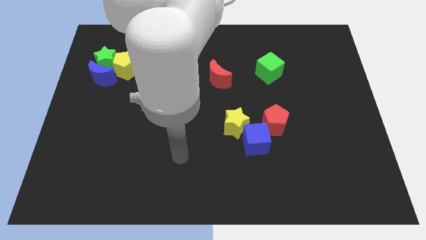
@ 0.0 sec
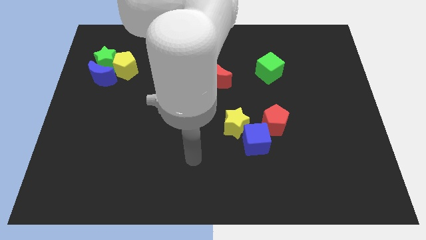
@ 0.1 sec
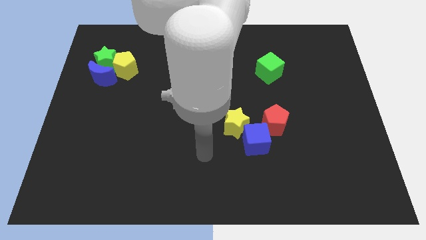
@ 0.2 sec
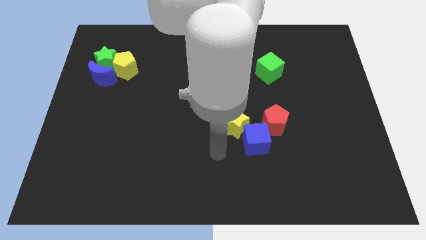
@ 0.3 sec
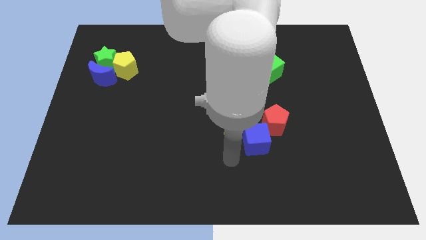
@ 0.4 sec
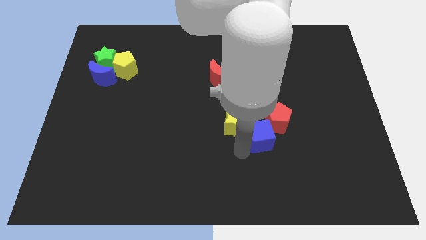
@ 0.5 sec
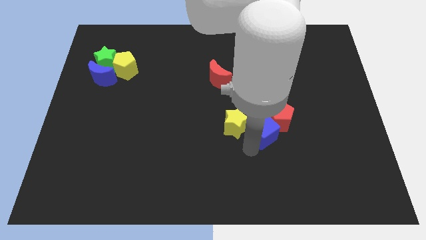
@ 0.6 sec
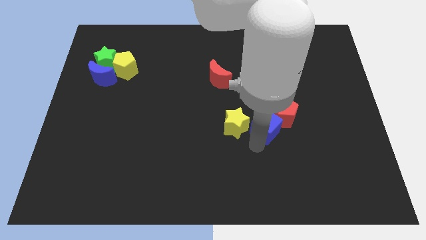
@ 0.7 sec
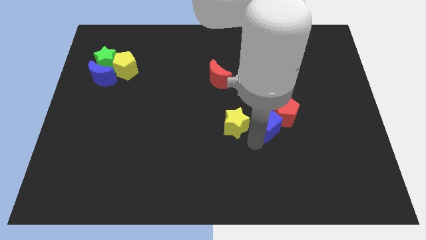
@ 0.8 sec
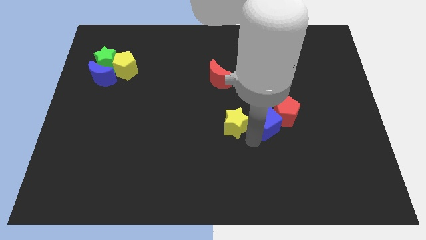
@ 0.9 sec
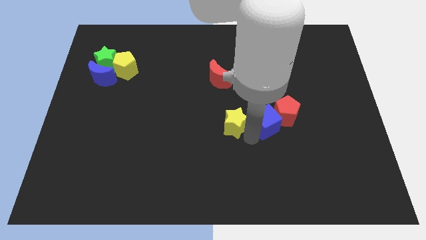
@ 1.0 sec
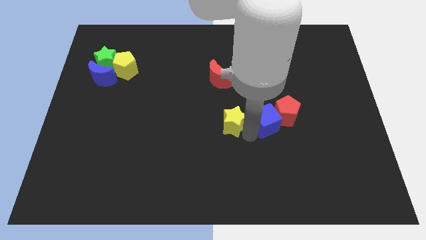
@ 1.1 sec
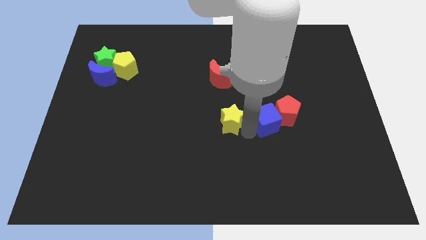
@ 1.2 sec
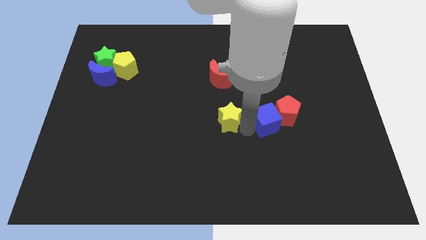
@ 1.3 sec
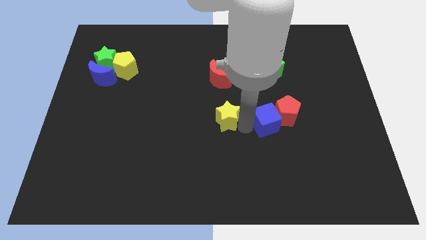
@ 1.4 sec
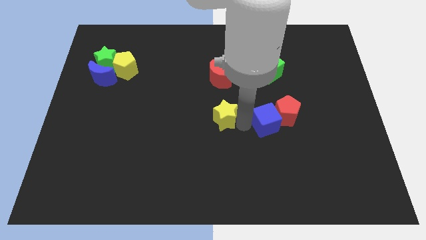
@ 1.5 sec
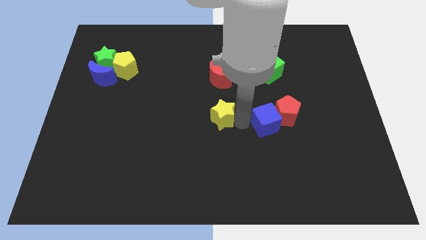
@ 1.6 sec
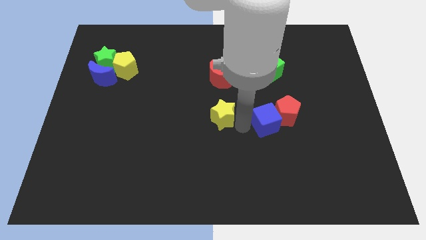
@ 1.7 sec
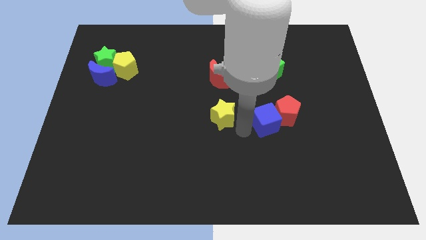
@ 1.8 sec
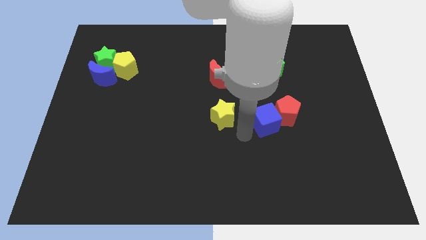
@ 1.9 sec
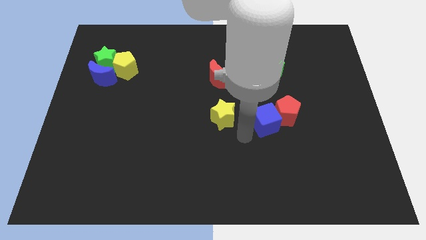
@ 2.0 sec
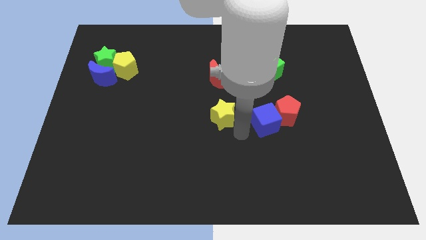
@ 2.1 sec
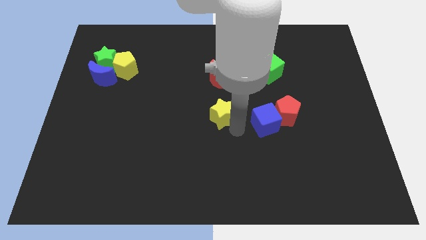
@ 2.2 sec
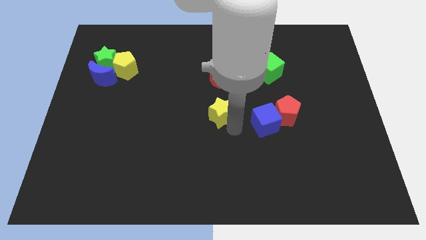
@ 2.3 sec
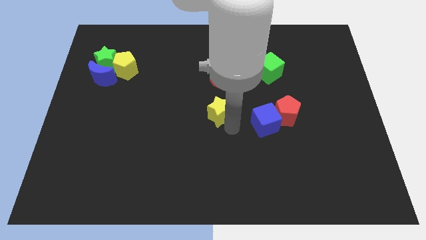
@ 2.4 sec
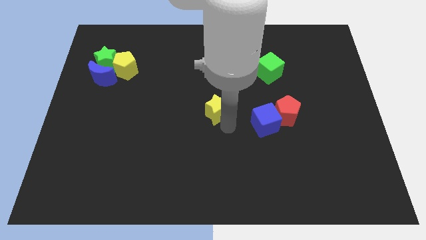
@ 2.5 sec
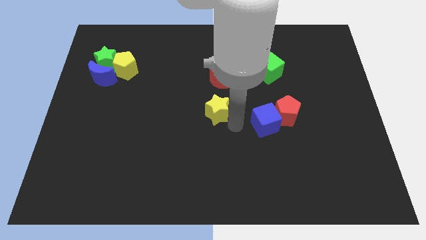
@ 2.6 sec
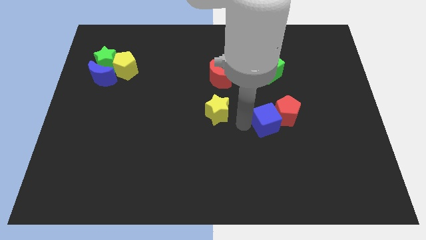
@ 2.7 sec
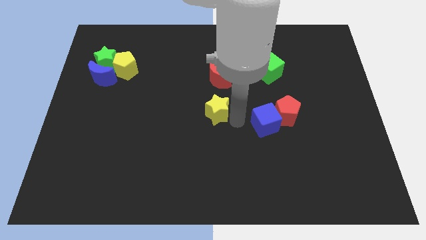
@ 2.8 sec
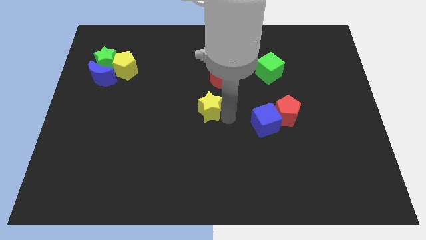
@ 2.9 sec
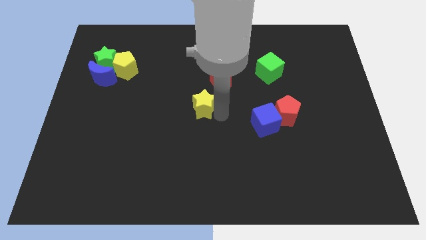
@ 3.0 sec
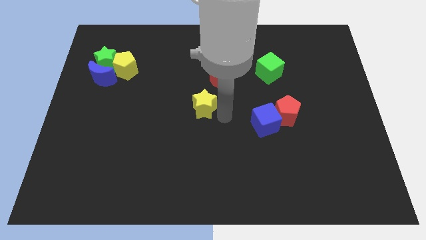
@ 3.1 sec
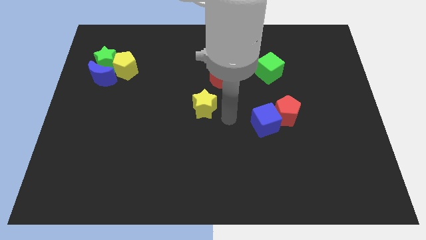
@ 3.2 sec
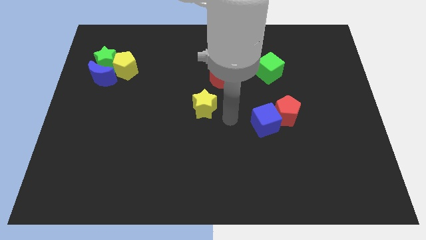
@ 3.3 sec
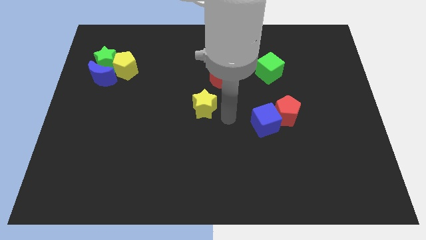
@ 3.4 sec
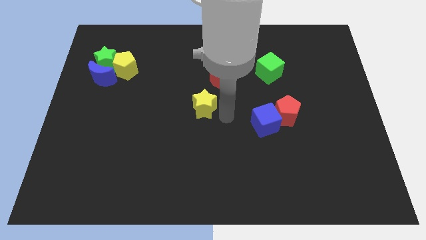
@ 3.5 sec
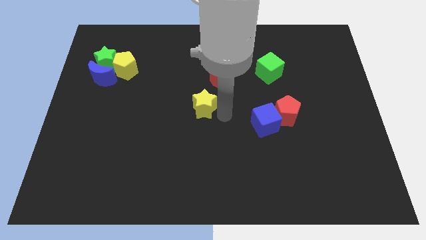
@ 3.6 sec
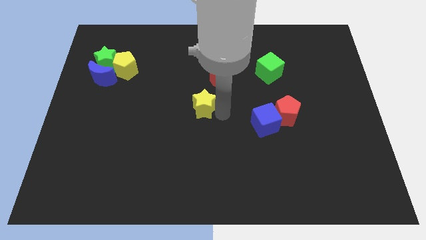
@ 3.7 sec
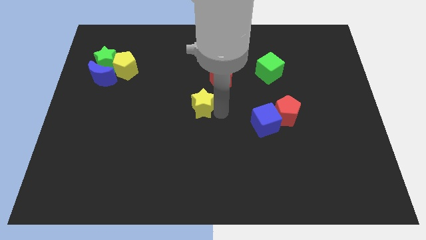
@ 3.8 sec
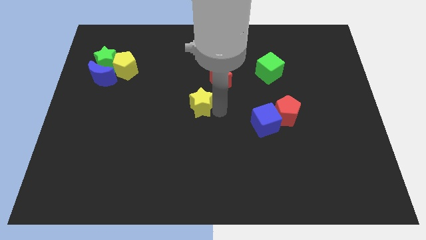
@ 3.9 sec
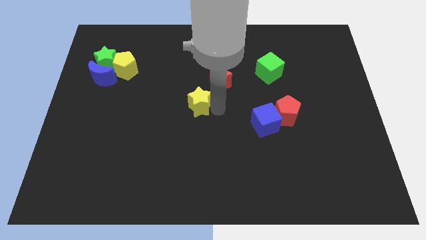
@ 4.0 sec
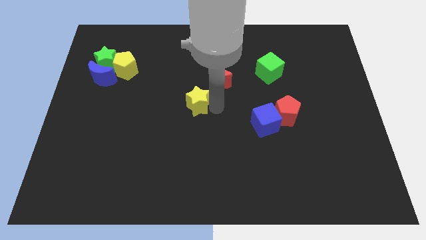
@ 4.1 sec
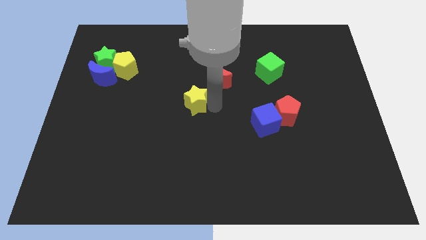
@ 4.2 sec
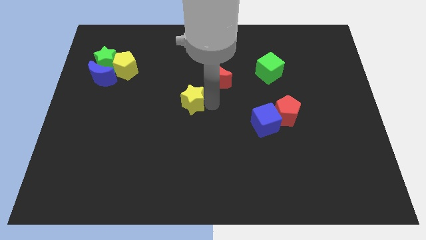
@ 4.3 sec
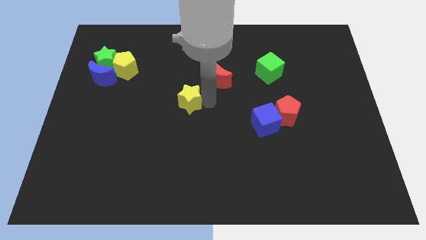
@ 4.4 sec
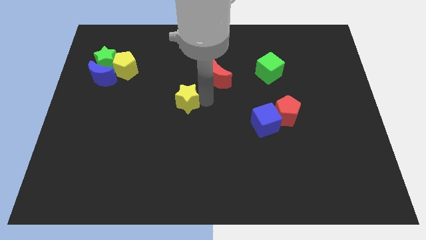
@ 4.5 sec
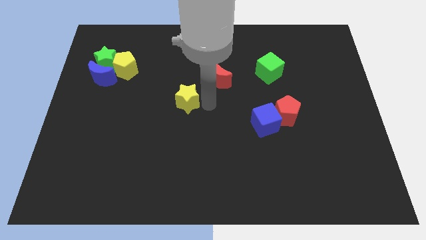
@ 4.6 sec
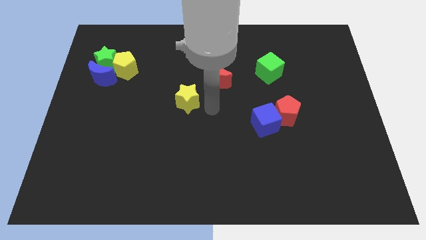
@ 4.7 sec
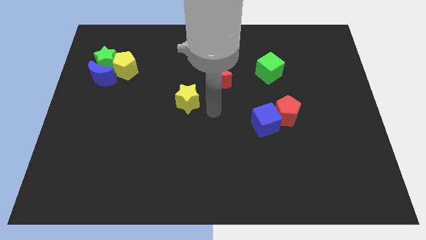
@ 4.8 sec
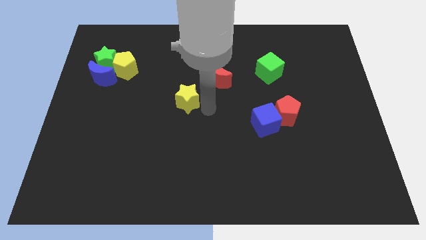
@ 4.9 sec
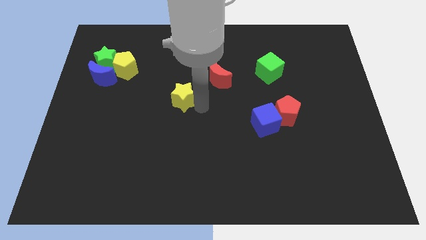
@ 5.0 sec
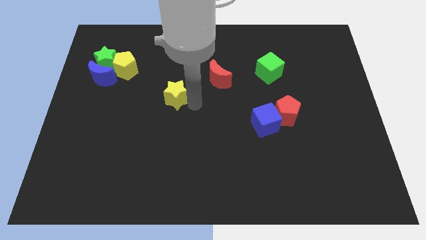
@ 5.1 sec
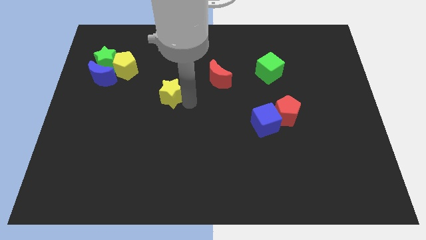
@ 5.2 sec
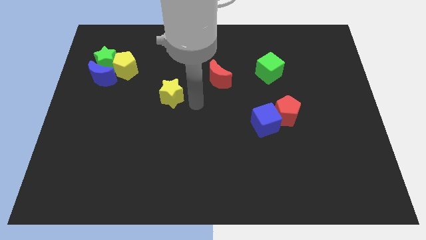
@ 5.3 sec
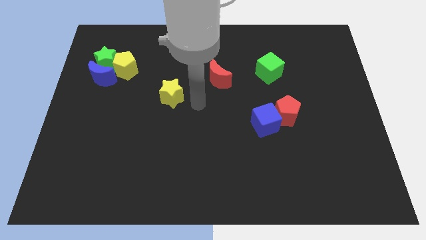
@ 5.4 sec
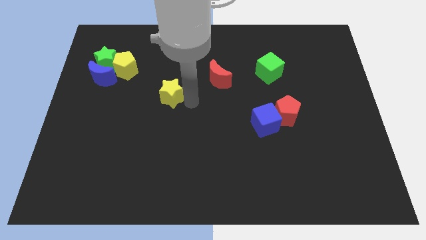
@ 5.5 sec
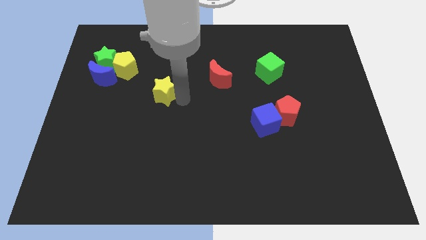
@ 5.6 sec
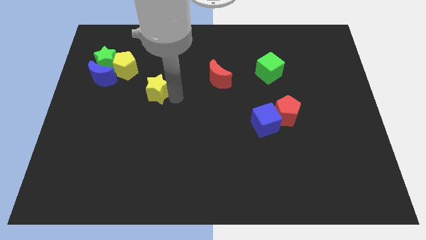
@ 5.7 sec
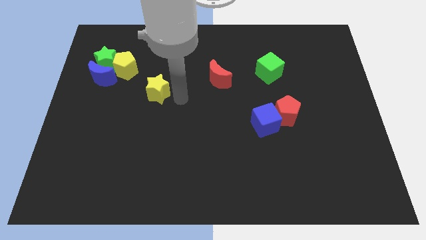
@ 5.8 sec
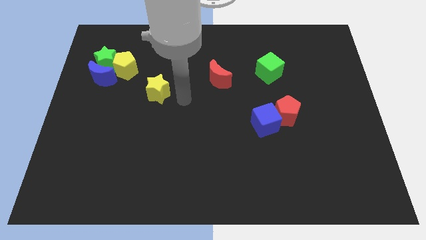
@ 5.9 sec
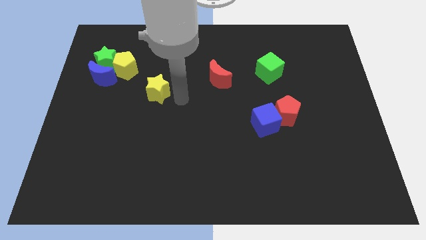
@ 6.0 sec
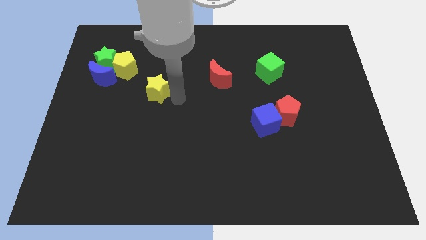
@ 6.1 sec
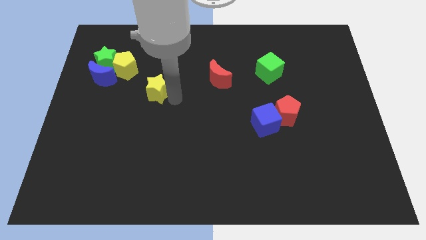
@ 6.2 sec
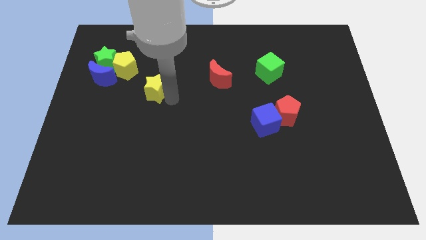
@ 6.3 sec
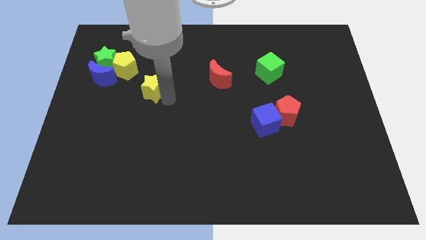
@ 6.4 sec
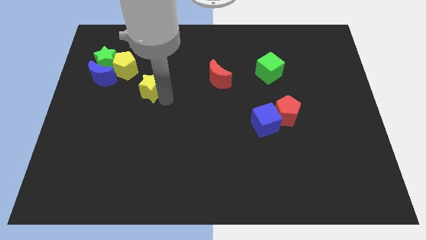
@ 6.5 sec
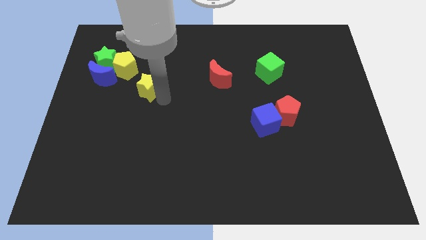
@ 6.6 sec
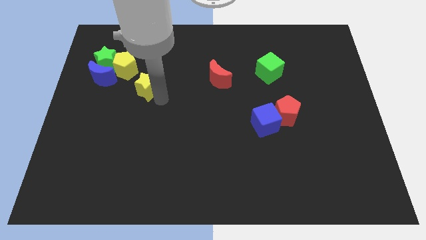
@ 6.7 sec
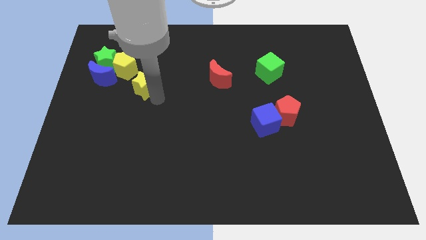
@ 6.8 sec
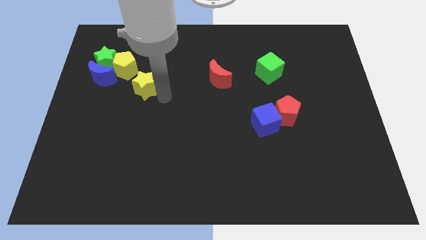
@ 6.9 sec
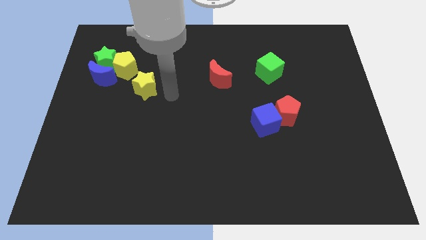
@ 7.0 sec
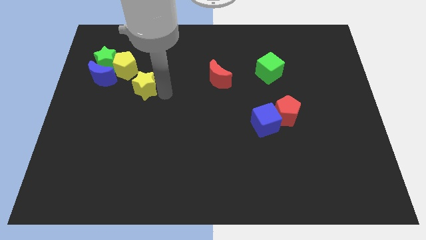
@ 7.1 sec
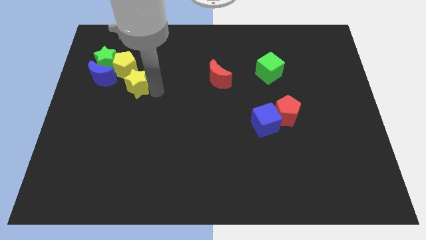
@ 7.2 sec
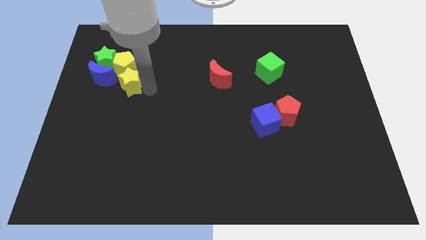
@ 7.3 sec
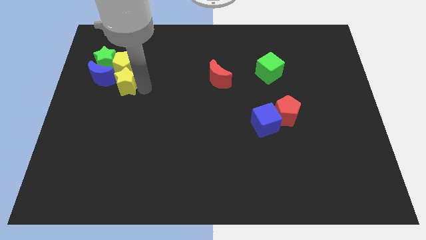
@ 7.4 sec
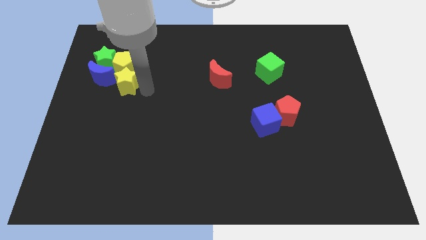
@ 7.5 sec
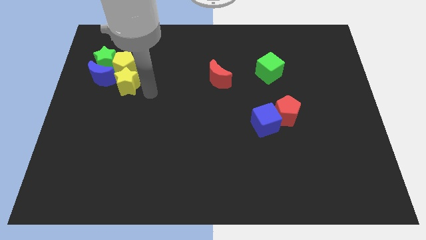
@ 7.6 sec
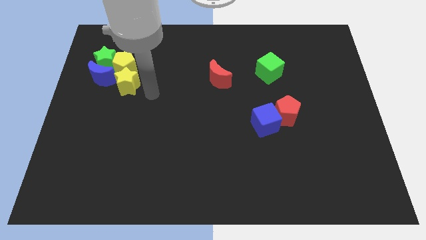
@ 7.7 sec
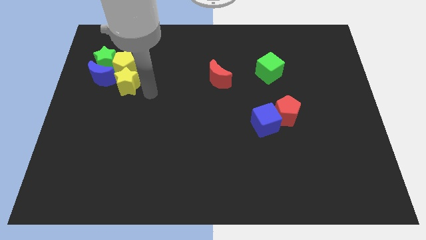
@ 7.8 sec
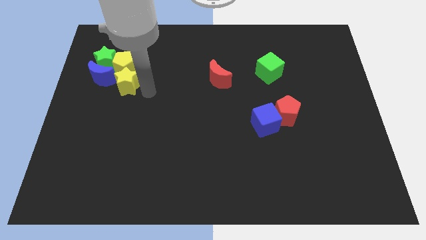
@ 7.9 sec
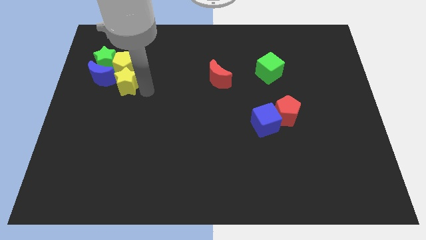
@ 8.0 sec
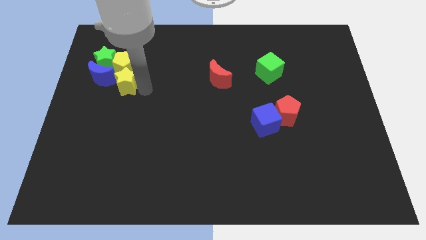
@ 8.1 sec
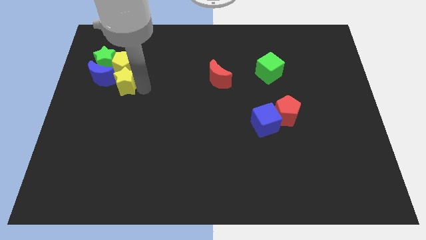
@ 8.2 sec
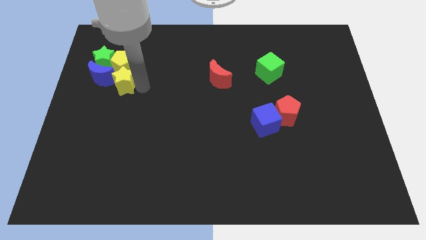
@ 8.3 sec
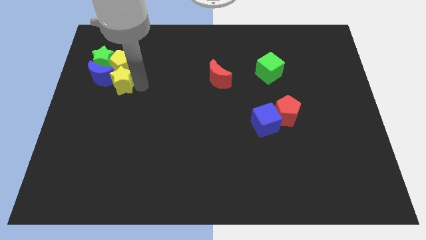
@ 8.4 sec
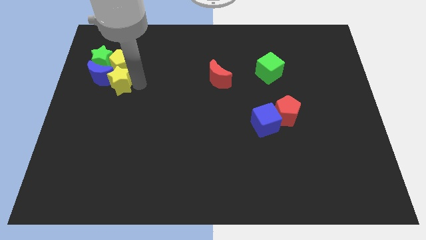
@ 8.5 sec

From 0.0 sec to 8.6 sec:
put the yellow star next to the blue moon
